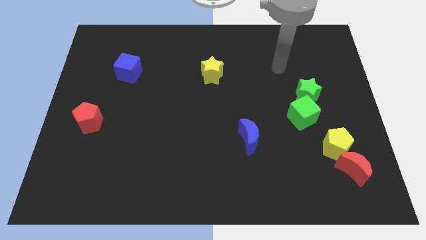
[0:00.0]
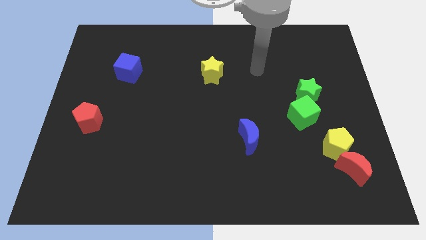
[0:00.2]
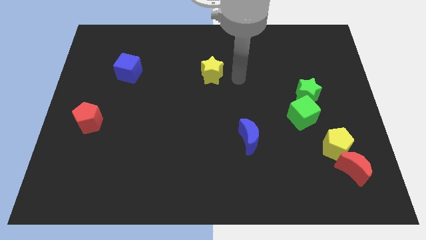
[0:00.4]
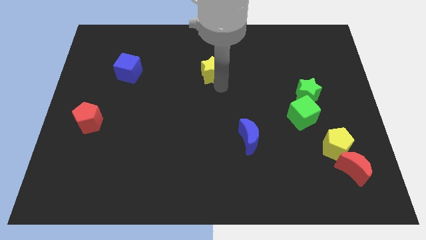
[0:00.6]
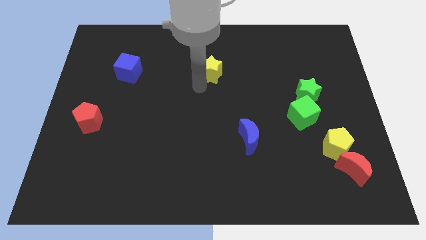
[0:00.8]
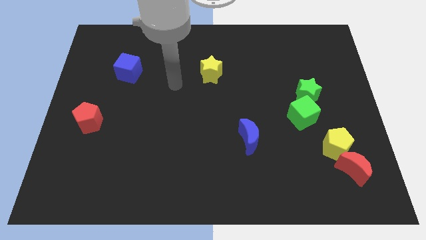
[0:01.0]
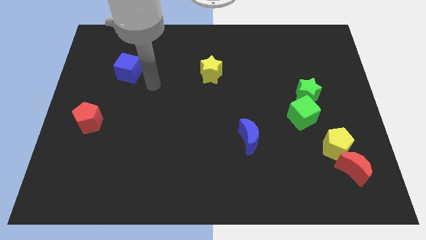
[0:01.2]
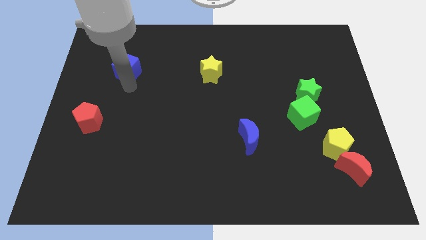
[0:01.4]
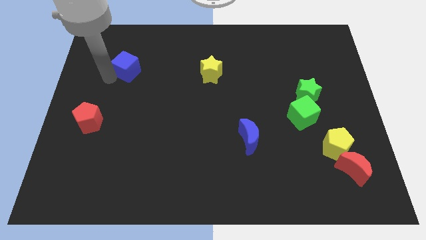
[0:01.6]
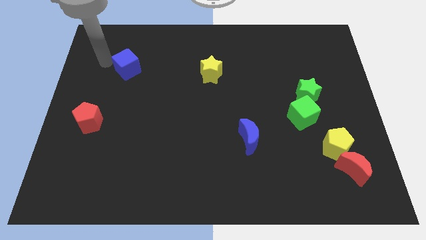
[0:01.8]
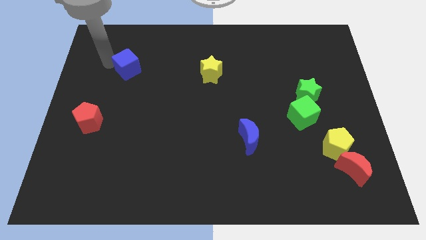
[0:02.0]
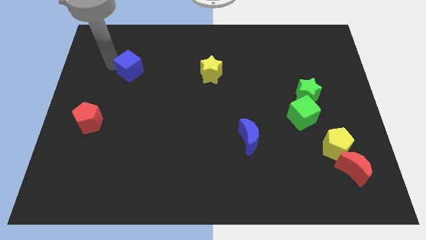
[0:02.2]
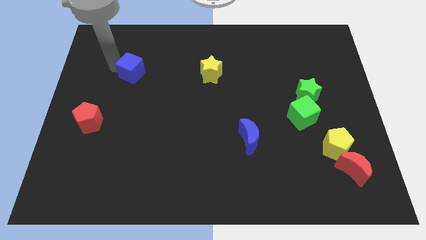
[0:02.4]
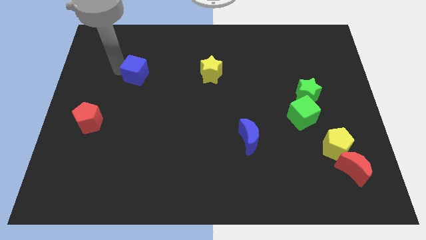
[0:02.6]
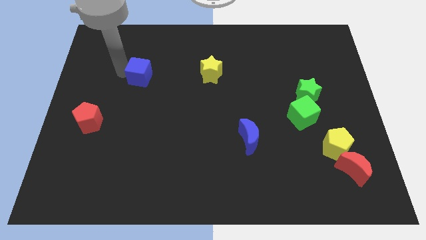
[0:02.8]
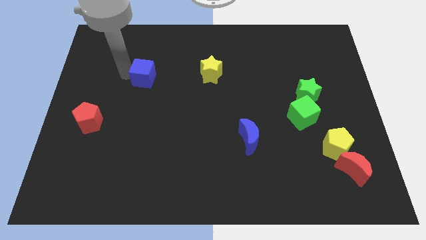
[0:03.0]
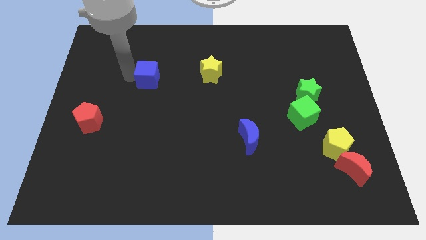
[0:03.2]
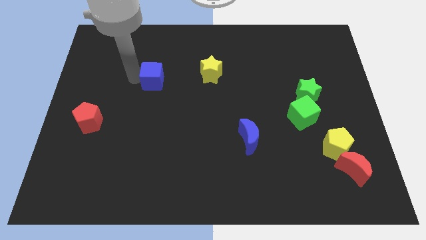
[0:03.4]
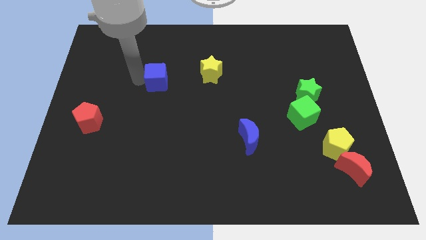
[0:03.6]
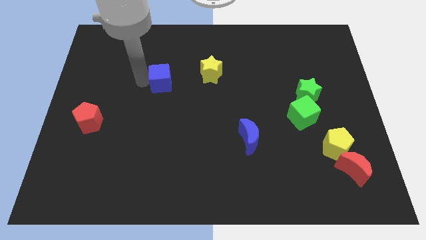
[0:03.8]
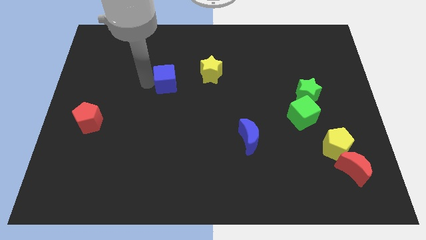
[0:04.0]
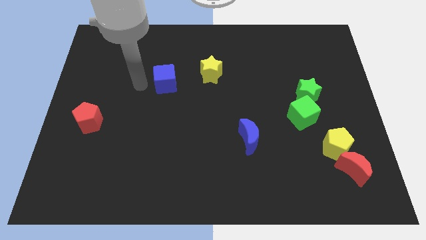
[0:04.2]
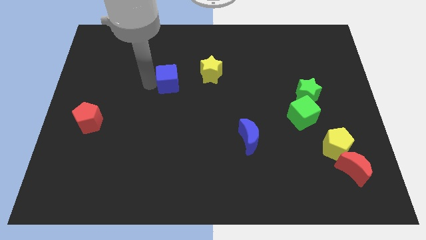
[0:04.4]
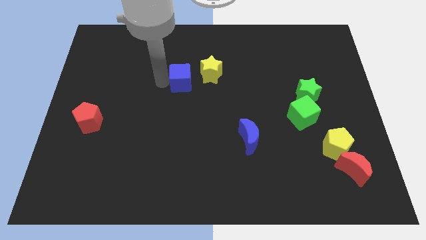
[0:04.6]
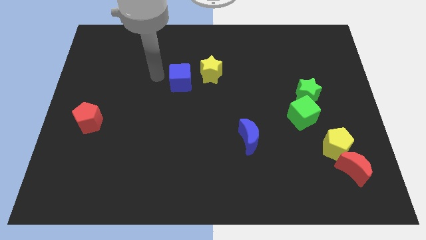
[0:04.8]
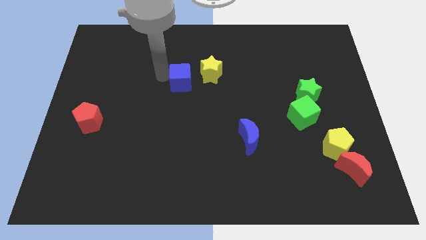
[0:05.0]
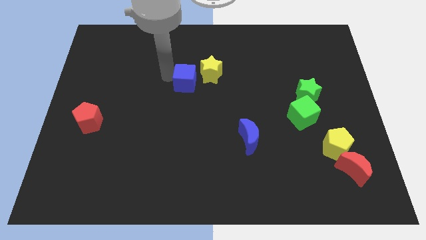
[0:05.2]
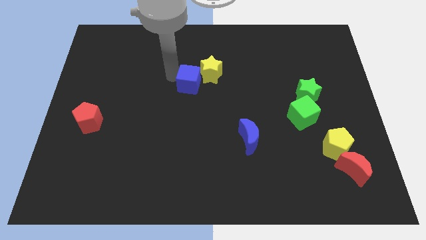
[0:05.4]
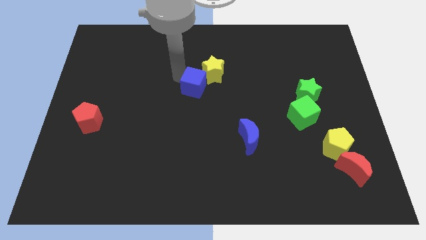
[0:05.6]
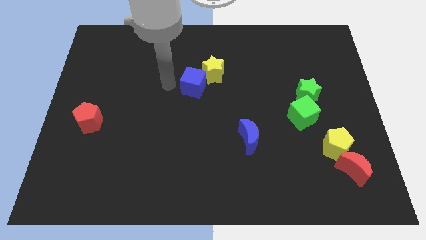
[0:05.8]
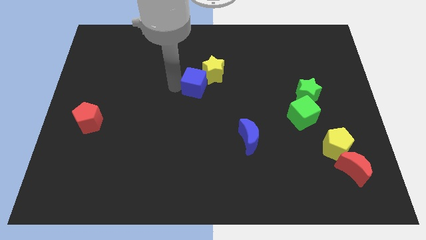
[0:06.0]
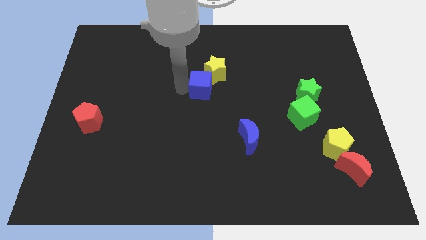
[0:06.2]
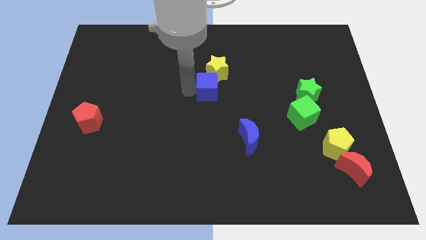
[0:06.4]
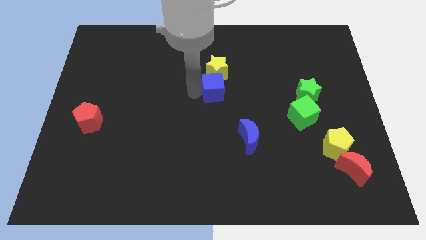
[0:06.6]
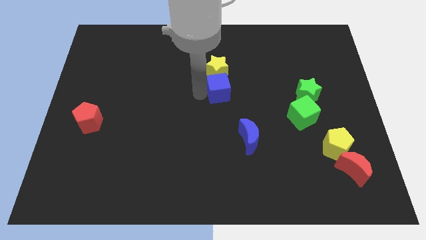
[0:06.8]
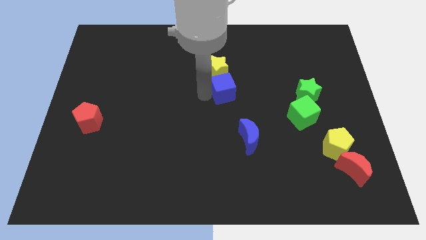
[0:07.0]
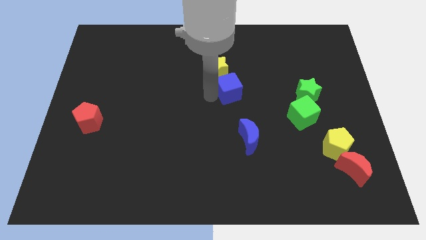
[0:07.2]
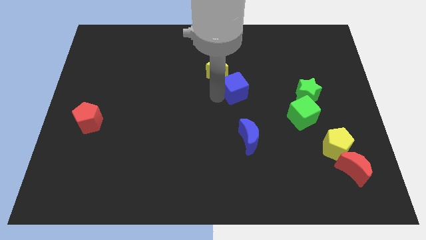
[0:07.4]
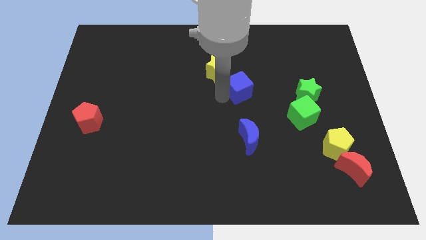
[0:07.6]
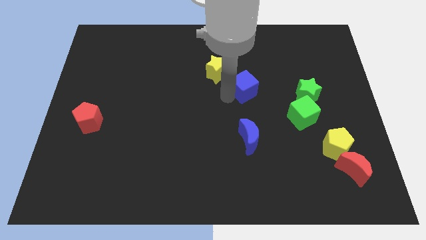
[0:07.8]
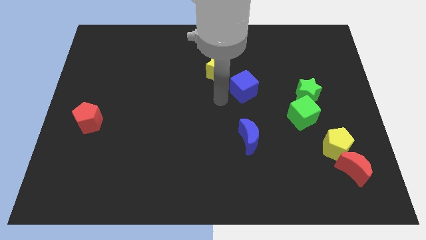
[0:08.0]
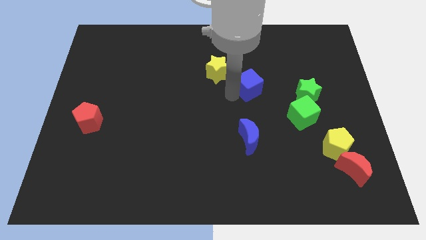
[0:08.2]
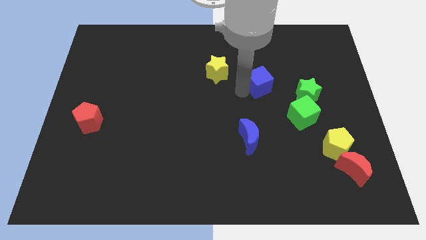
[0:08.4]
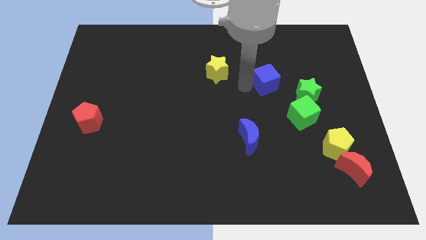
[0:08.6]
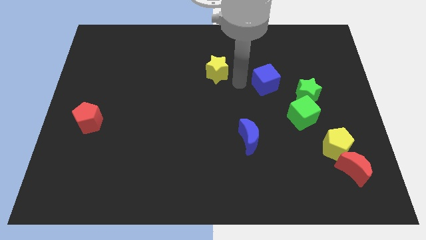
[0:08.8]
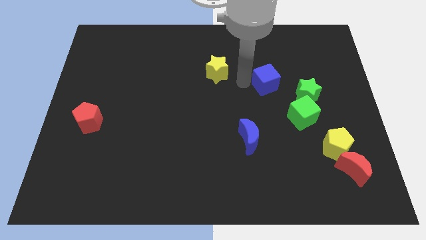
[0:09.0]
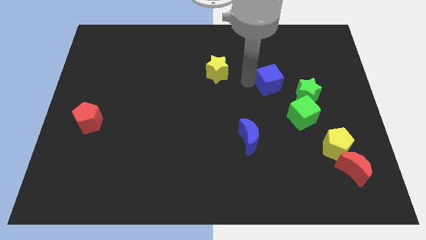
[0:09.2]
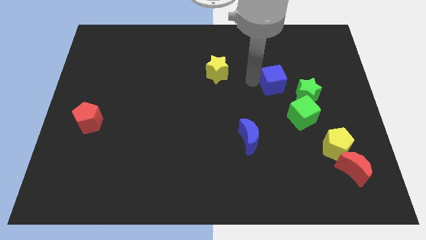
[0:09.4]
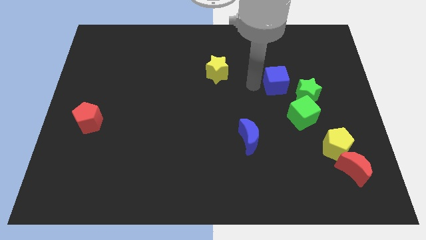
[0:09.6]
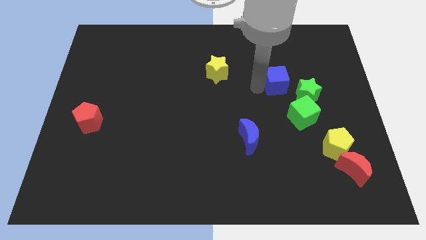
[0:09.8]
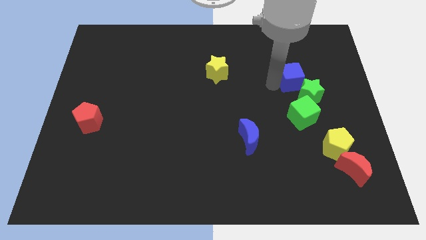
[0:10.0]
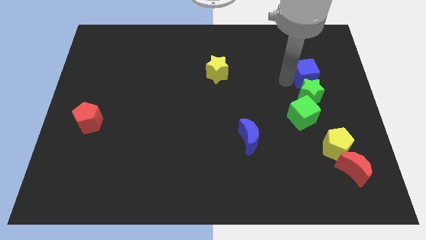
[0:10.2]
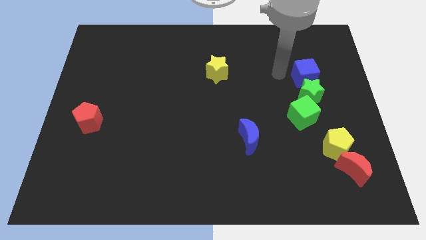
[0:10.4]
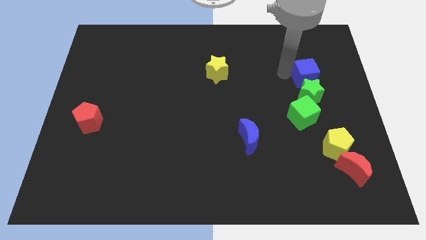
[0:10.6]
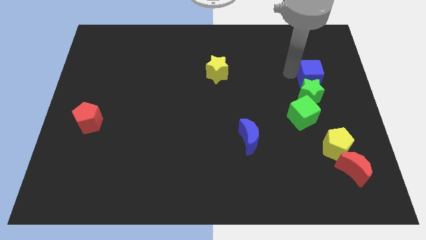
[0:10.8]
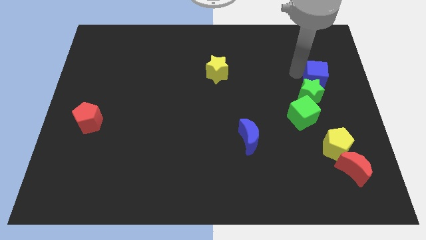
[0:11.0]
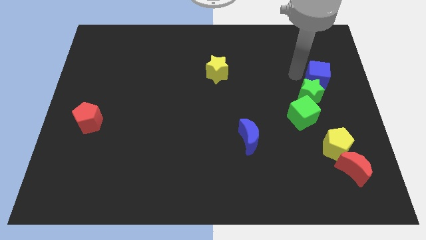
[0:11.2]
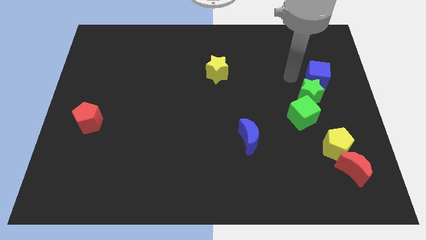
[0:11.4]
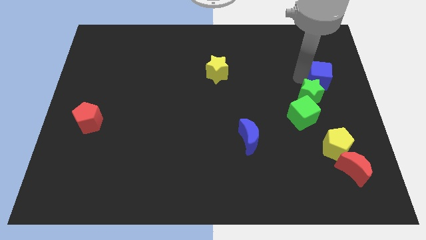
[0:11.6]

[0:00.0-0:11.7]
push the blue cube to the right side of the board

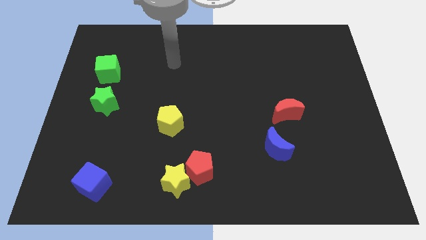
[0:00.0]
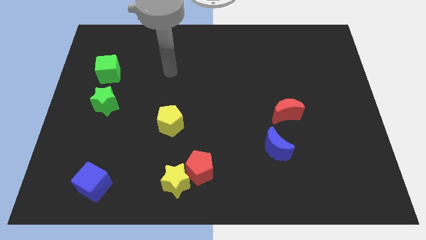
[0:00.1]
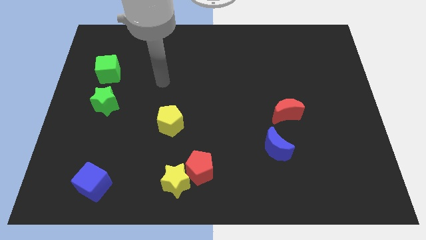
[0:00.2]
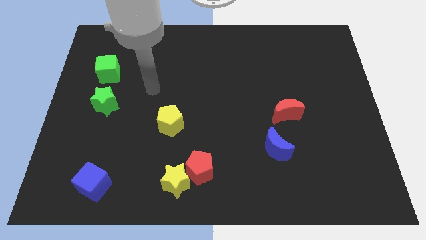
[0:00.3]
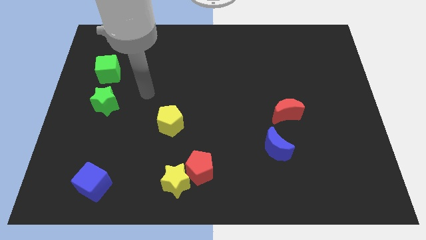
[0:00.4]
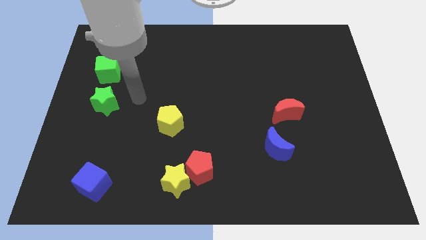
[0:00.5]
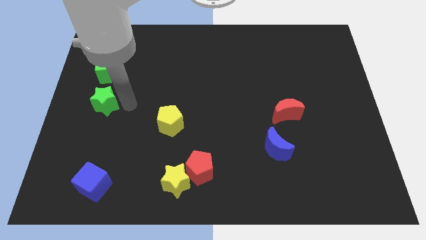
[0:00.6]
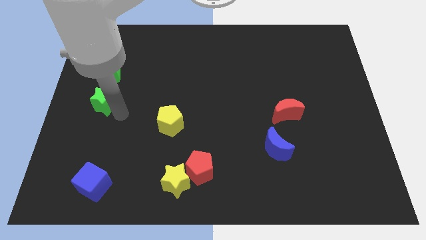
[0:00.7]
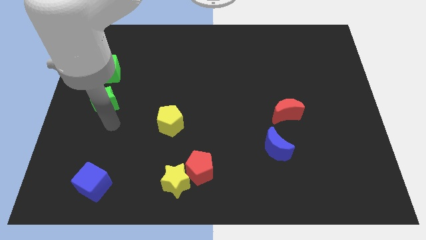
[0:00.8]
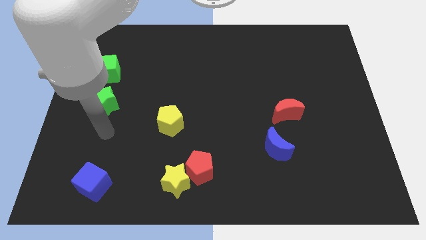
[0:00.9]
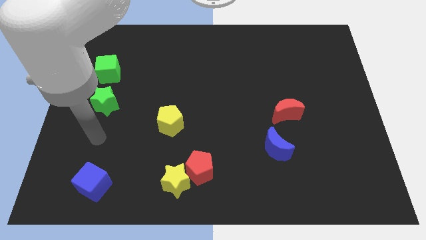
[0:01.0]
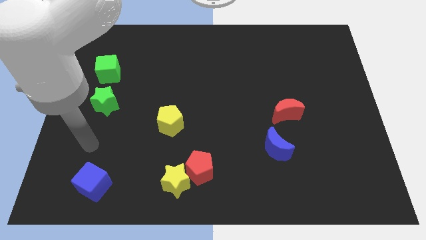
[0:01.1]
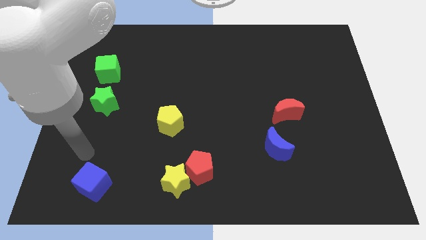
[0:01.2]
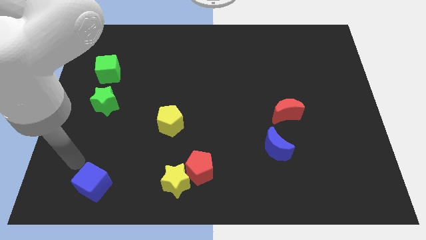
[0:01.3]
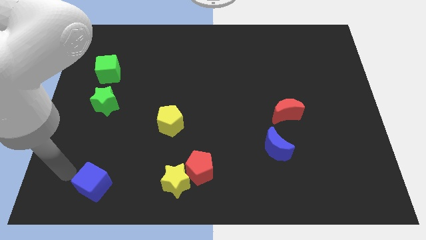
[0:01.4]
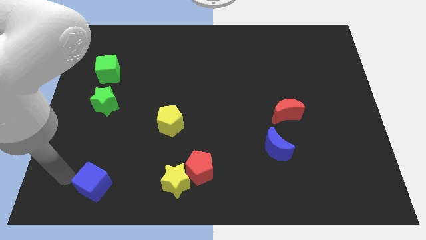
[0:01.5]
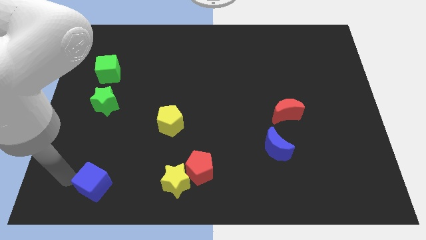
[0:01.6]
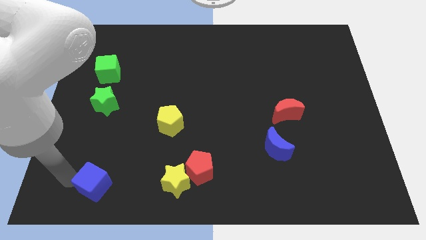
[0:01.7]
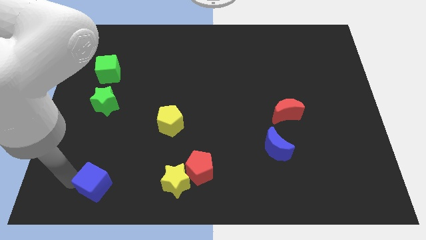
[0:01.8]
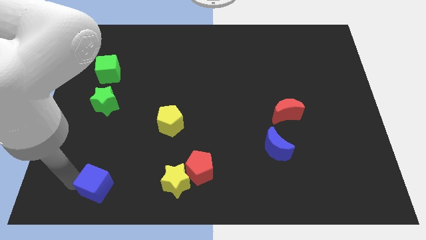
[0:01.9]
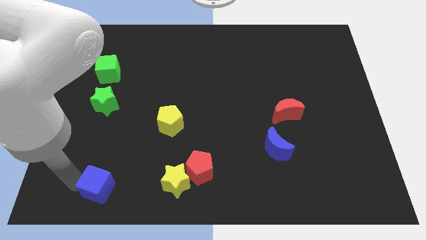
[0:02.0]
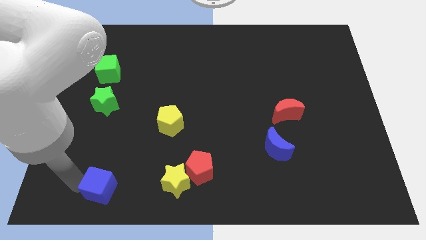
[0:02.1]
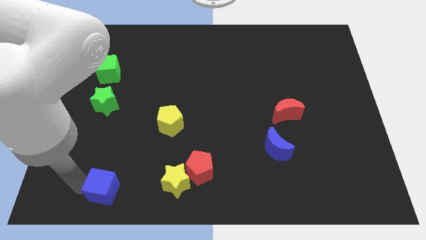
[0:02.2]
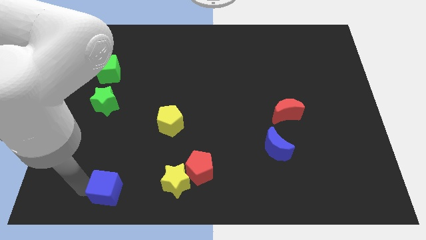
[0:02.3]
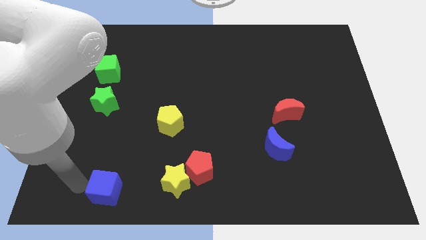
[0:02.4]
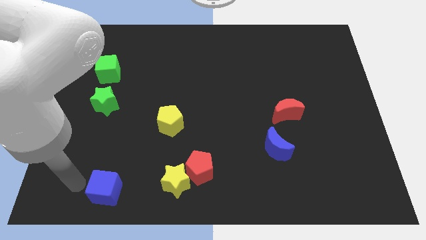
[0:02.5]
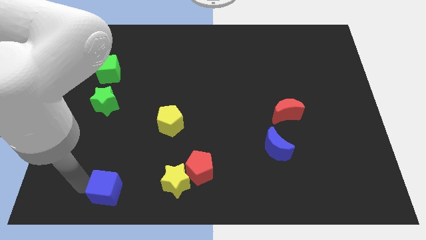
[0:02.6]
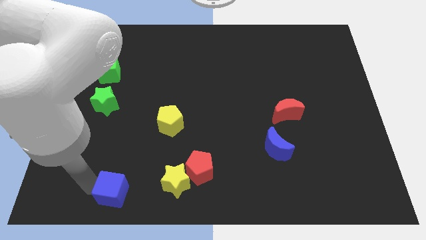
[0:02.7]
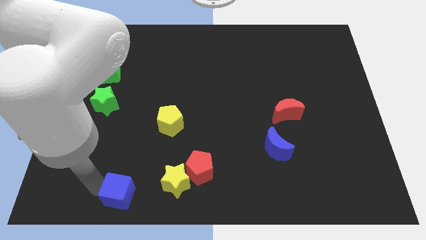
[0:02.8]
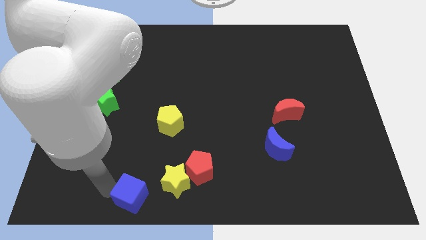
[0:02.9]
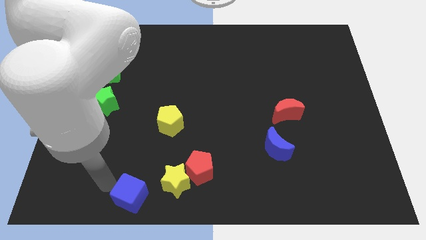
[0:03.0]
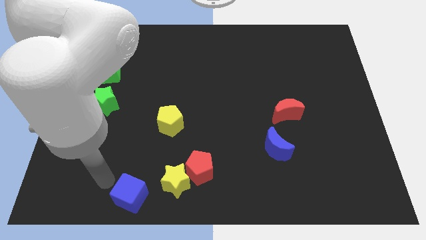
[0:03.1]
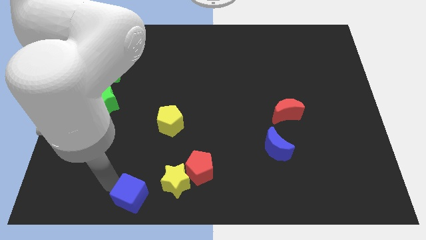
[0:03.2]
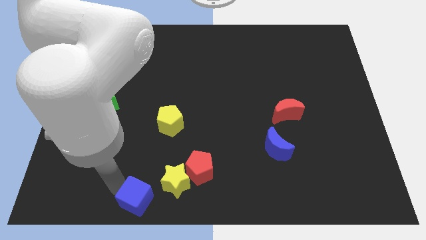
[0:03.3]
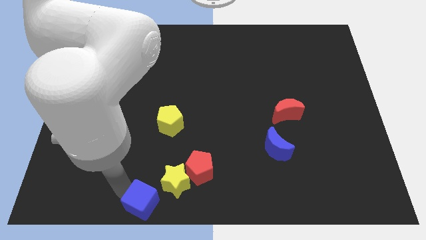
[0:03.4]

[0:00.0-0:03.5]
put the blue cube to the bottom side
